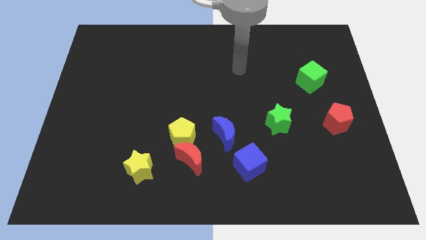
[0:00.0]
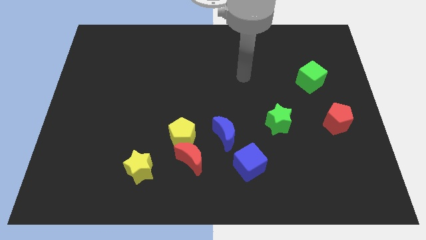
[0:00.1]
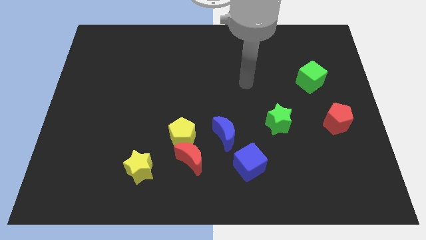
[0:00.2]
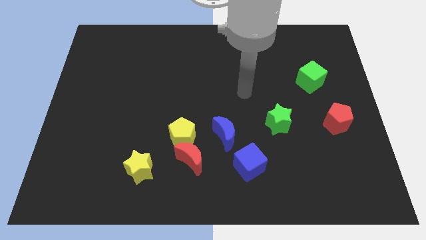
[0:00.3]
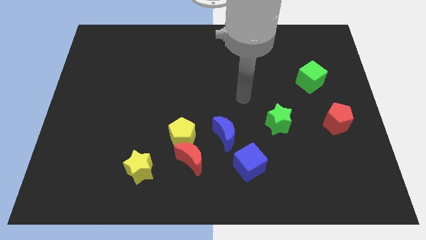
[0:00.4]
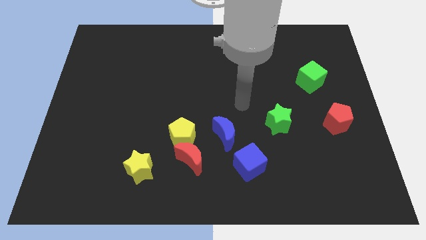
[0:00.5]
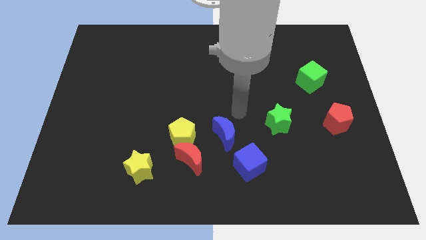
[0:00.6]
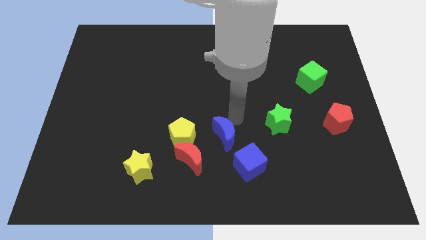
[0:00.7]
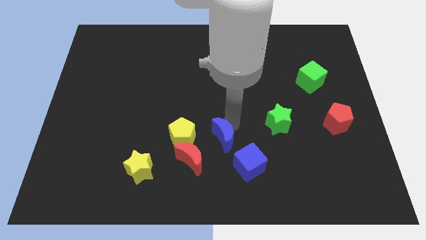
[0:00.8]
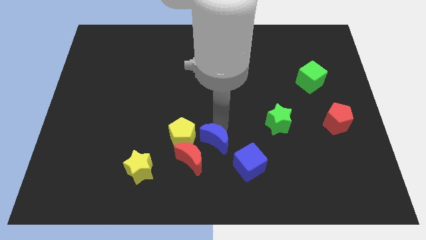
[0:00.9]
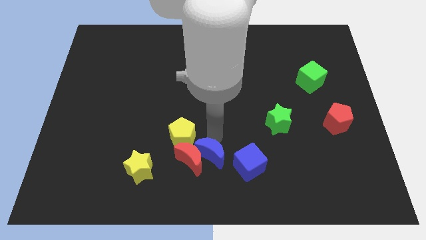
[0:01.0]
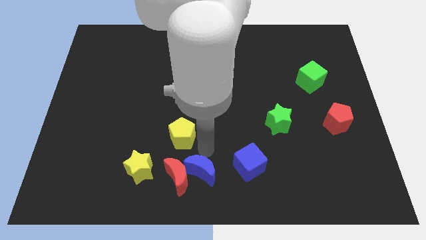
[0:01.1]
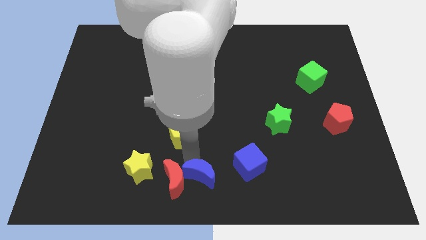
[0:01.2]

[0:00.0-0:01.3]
pull the yellow pentagon apart from the red moon and blue moon

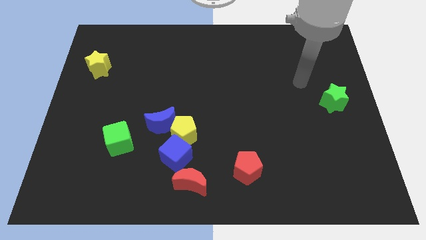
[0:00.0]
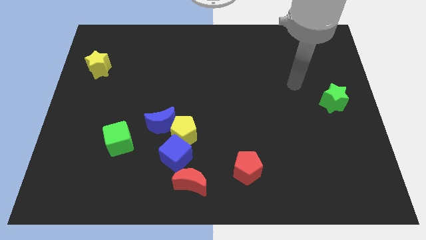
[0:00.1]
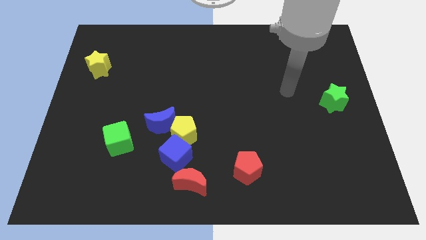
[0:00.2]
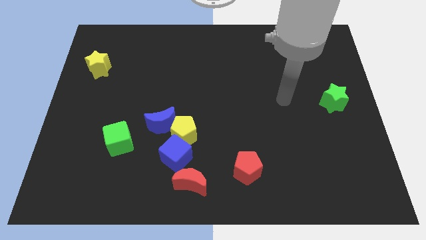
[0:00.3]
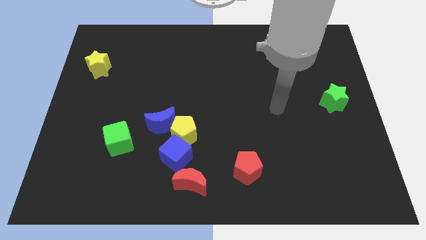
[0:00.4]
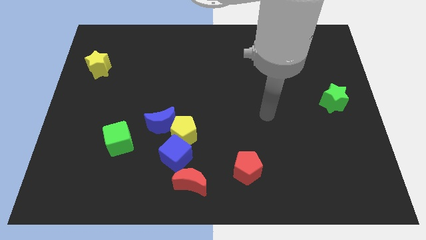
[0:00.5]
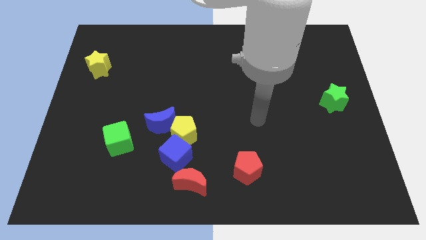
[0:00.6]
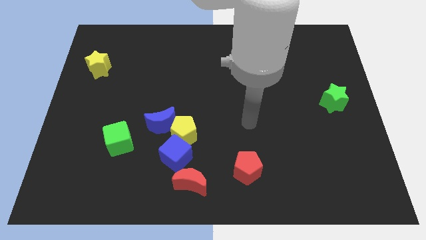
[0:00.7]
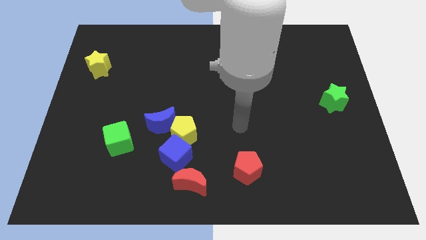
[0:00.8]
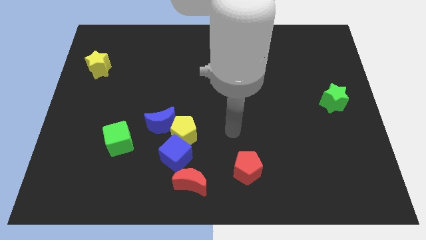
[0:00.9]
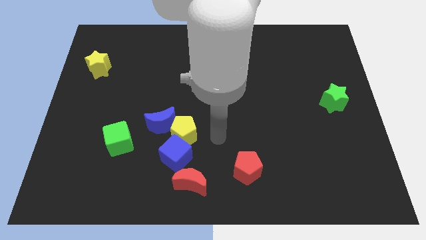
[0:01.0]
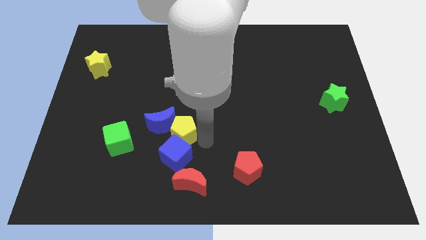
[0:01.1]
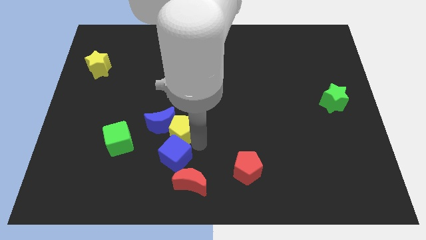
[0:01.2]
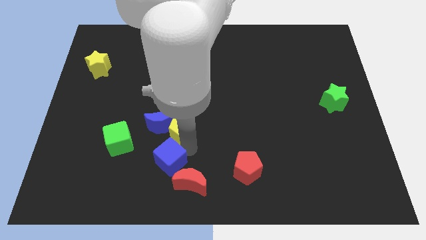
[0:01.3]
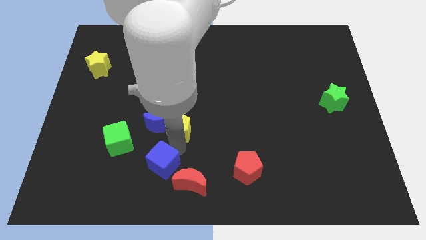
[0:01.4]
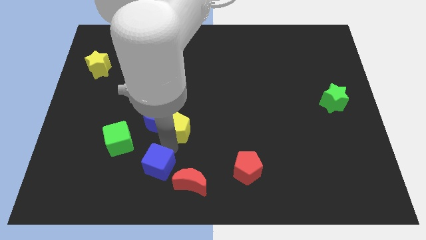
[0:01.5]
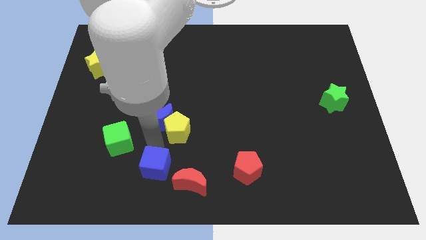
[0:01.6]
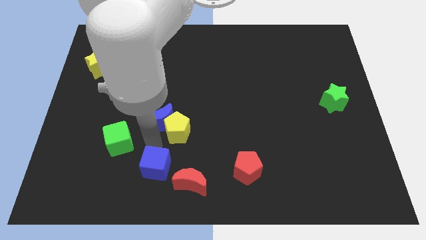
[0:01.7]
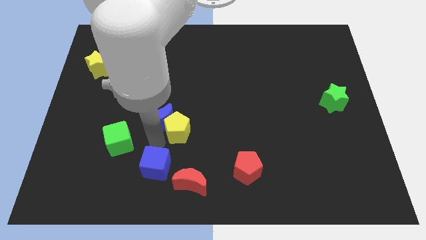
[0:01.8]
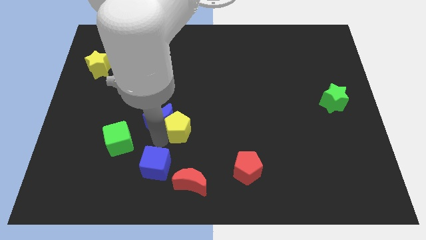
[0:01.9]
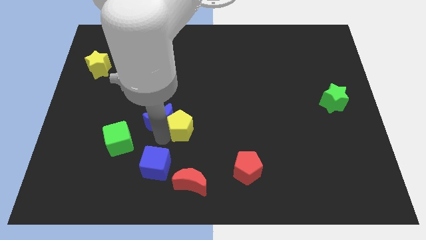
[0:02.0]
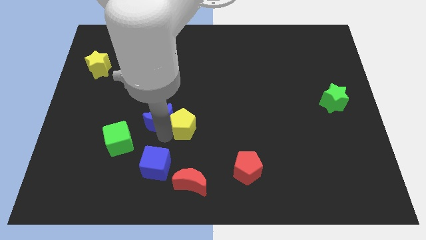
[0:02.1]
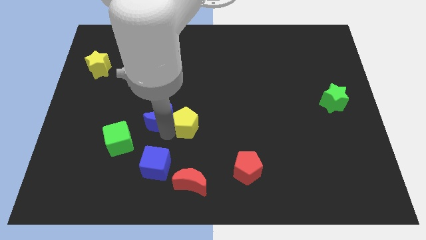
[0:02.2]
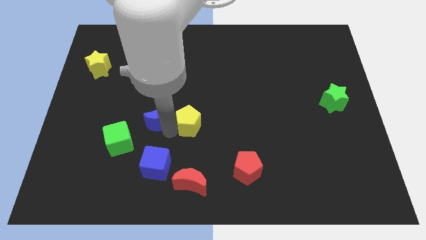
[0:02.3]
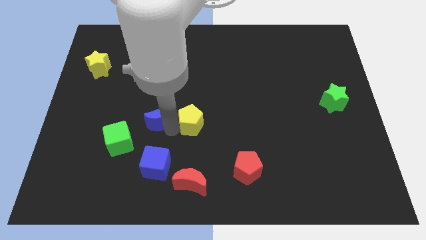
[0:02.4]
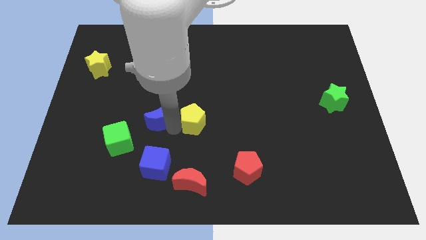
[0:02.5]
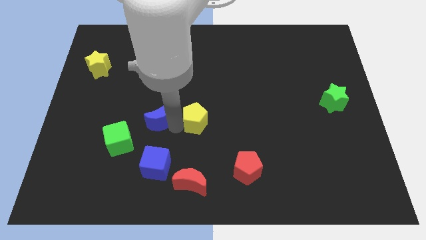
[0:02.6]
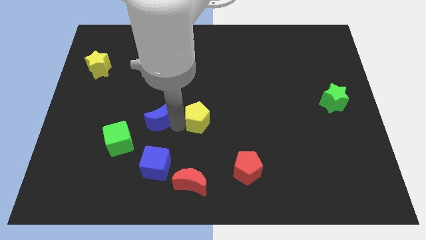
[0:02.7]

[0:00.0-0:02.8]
separate the yellow pentagon from the blue moon and blue cube

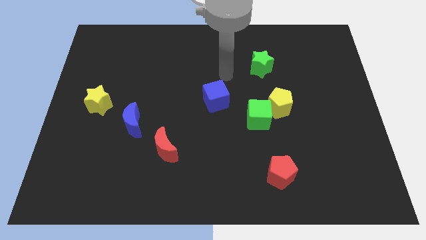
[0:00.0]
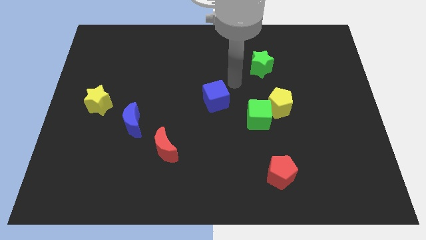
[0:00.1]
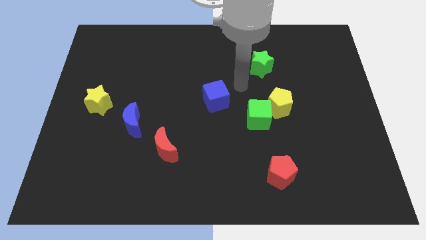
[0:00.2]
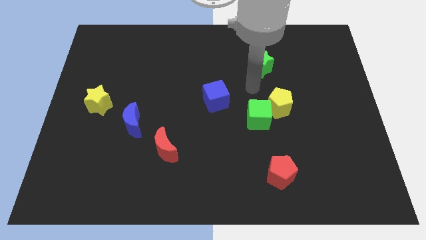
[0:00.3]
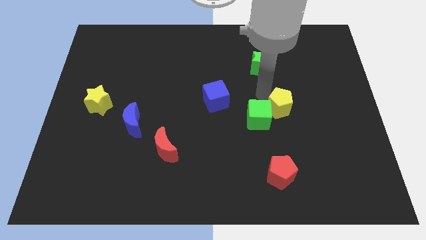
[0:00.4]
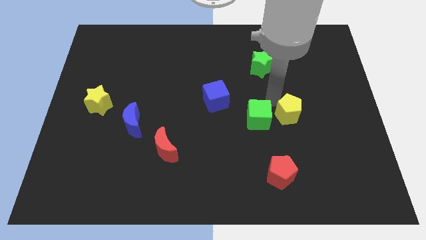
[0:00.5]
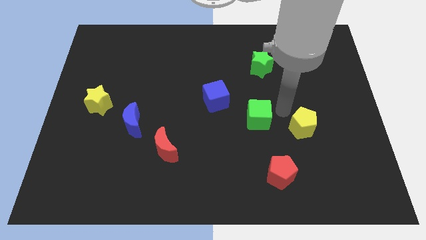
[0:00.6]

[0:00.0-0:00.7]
separate the green cube from the yellow pentagon

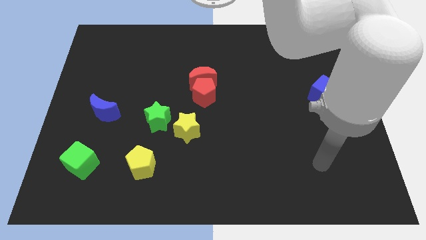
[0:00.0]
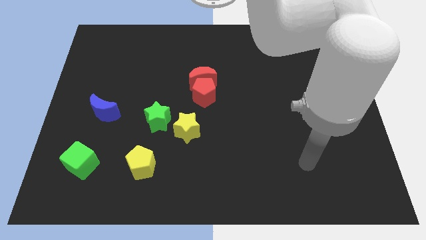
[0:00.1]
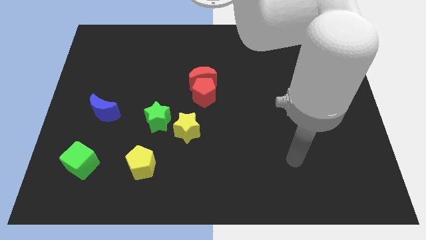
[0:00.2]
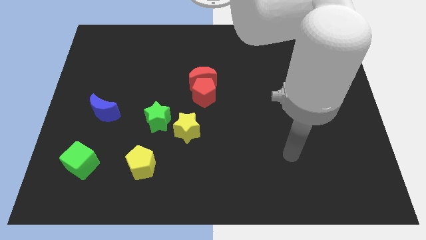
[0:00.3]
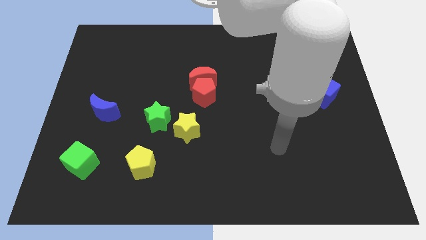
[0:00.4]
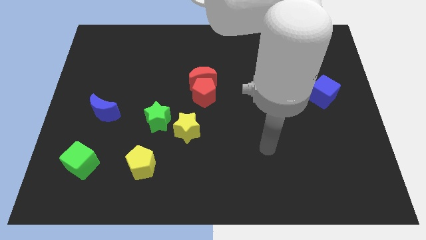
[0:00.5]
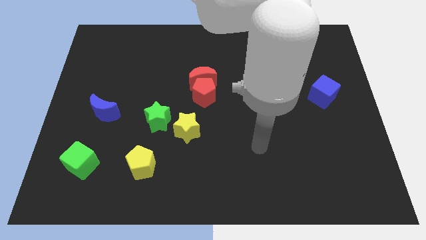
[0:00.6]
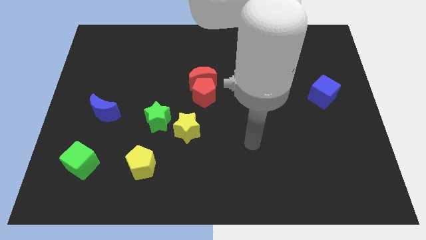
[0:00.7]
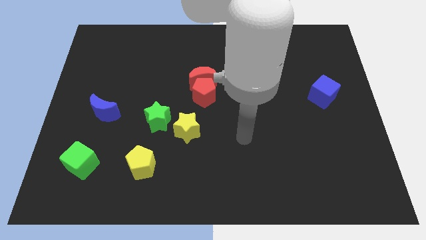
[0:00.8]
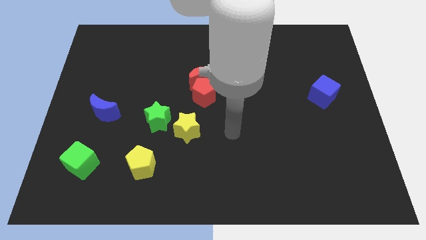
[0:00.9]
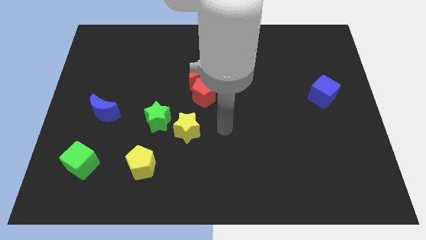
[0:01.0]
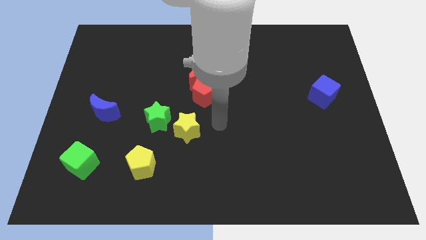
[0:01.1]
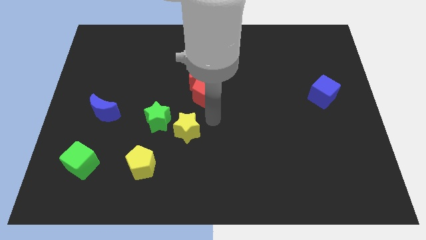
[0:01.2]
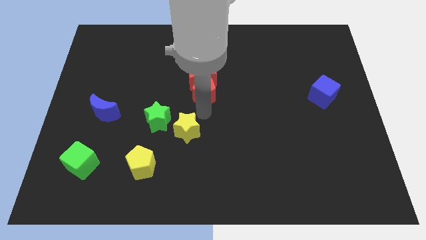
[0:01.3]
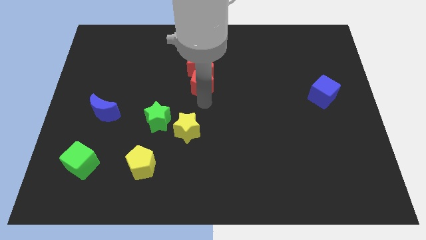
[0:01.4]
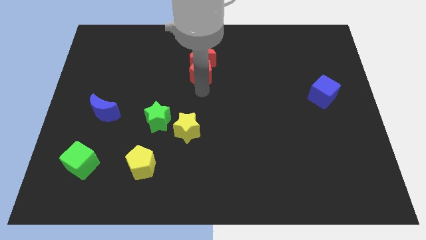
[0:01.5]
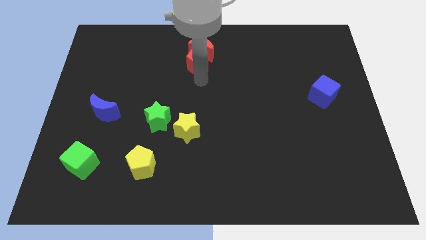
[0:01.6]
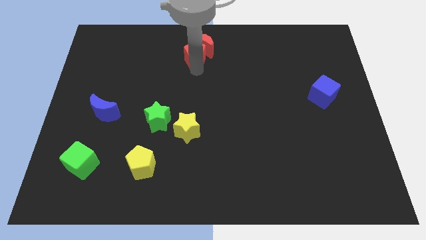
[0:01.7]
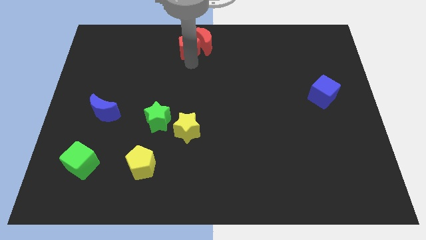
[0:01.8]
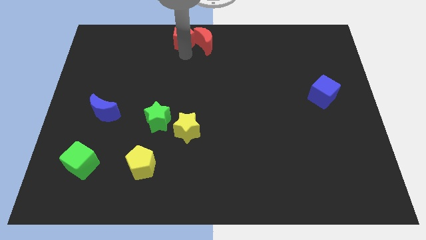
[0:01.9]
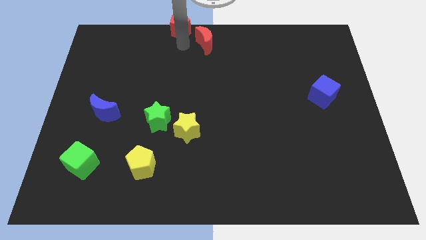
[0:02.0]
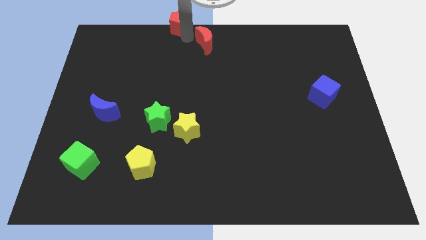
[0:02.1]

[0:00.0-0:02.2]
separate the red moon from the red pentagon

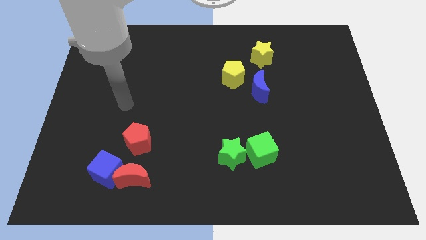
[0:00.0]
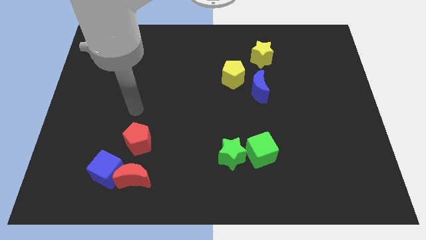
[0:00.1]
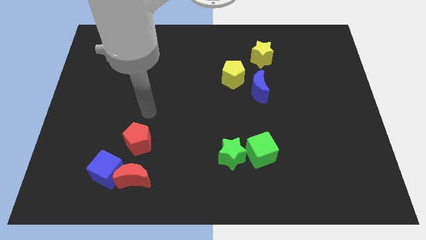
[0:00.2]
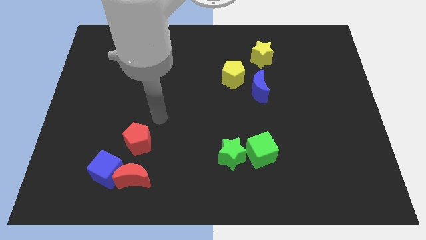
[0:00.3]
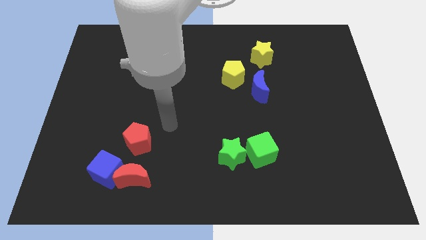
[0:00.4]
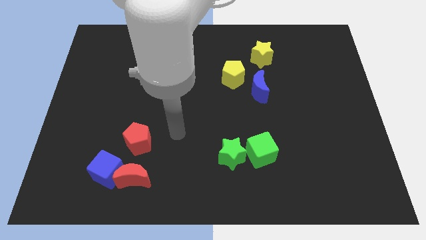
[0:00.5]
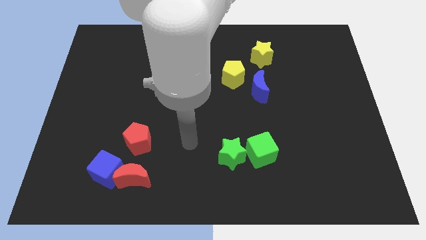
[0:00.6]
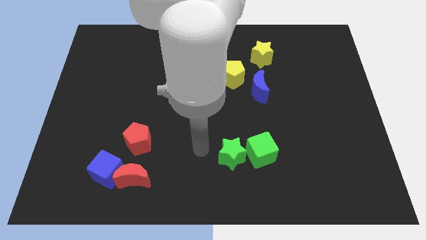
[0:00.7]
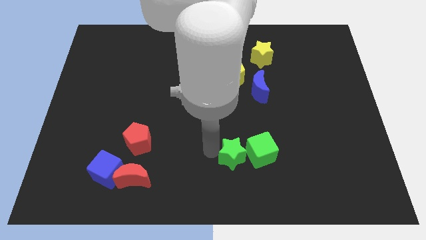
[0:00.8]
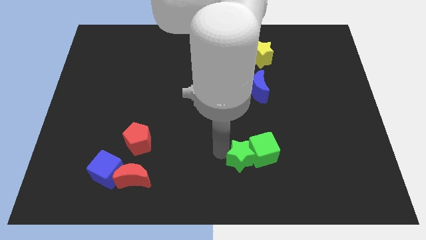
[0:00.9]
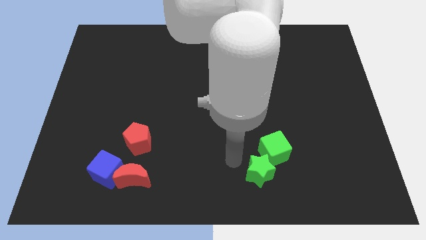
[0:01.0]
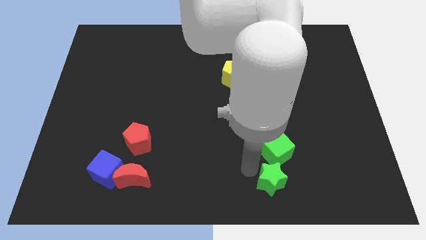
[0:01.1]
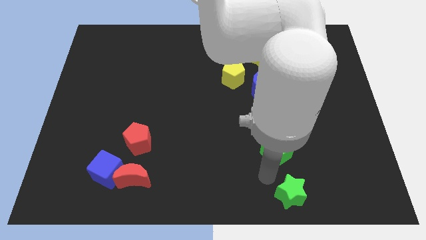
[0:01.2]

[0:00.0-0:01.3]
separate the green cube from the green star

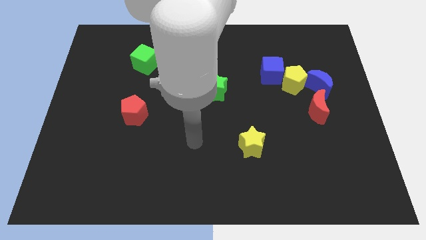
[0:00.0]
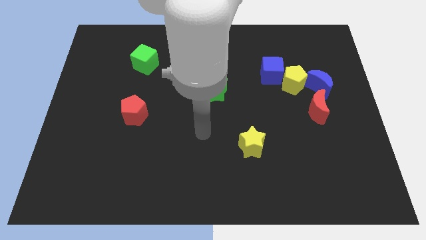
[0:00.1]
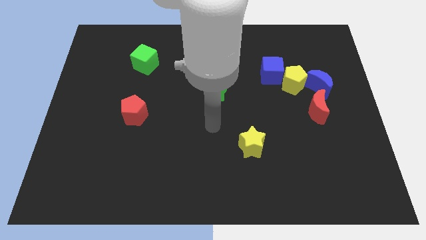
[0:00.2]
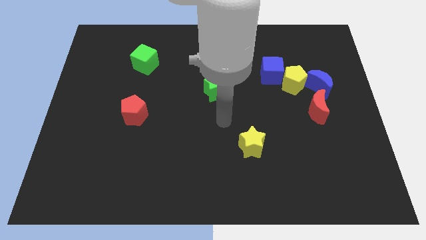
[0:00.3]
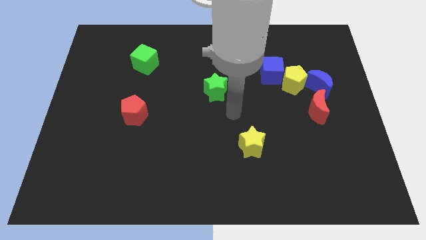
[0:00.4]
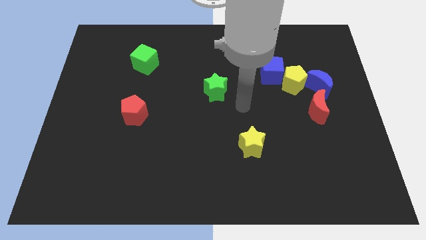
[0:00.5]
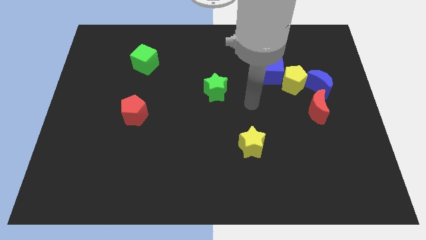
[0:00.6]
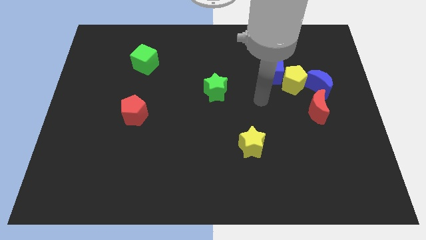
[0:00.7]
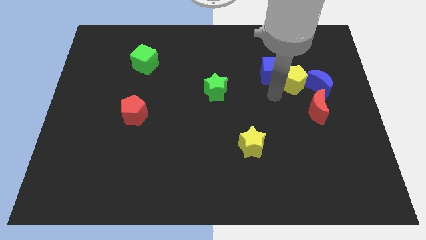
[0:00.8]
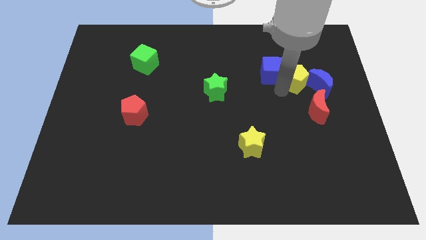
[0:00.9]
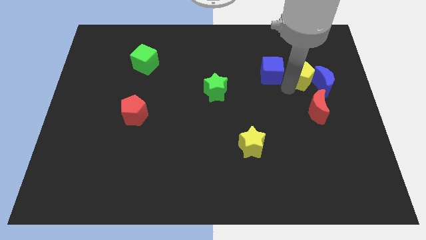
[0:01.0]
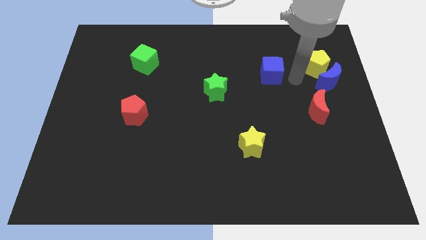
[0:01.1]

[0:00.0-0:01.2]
separate the blue cube from the yellow pentagon
